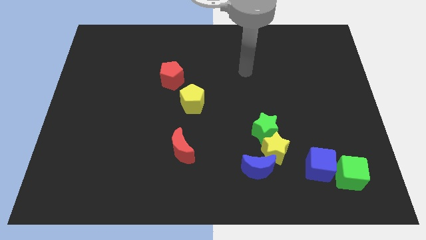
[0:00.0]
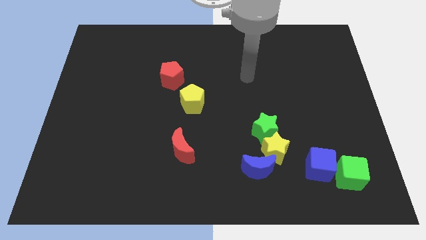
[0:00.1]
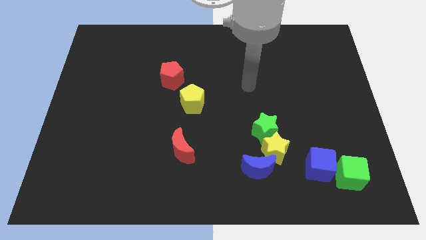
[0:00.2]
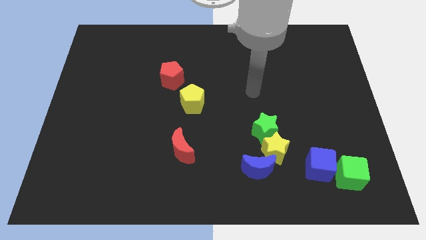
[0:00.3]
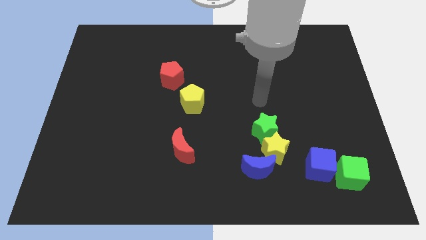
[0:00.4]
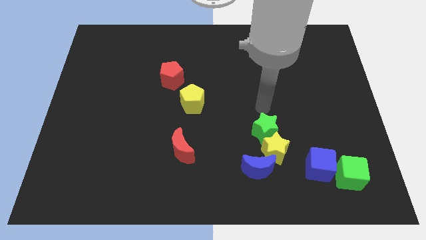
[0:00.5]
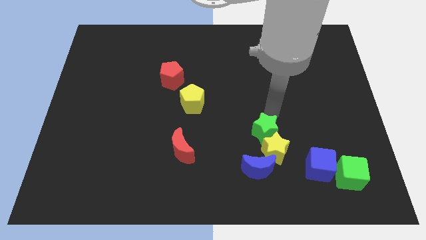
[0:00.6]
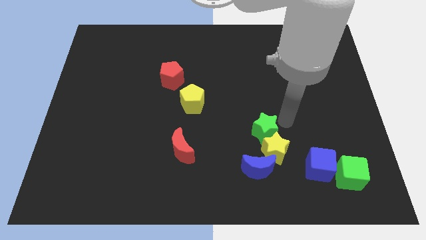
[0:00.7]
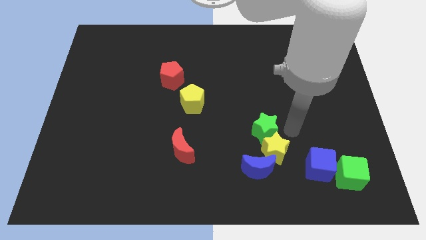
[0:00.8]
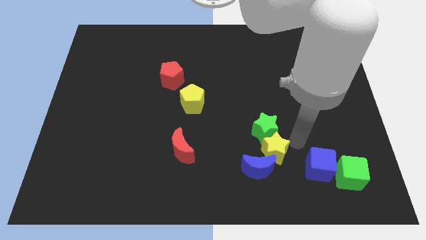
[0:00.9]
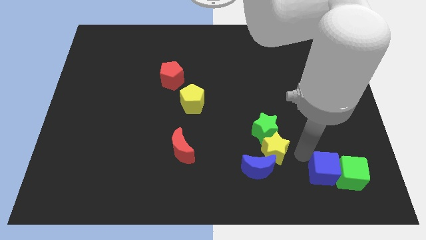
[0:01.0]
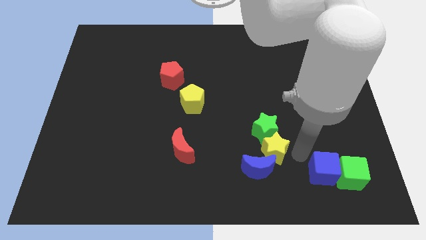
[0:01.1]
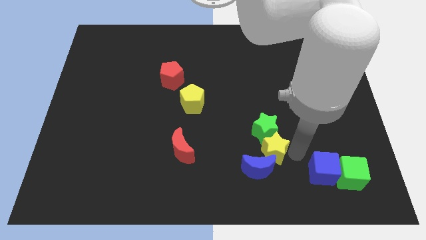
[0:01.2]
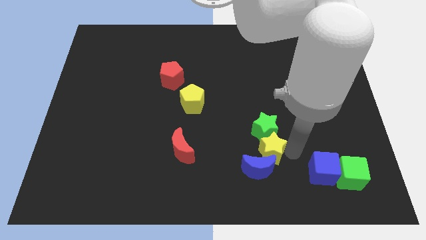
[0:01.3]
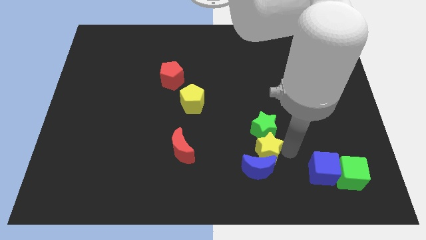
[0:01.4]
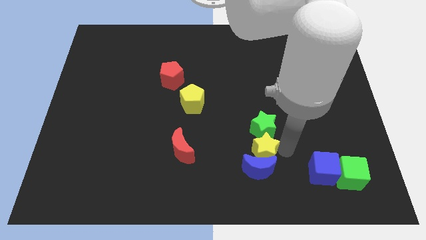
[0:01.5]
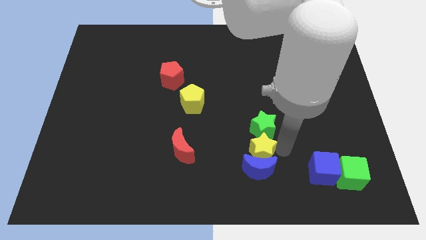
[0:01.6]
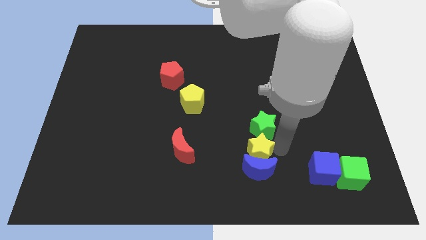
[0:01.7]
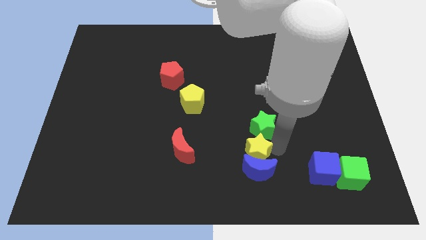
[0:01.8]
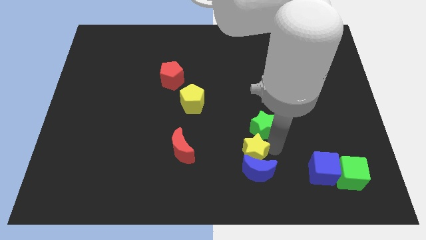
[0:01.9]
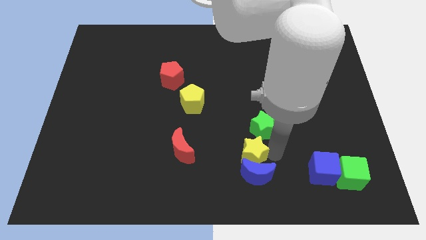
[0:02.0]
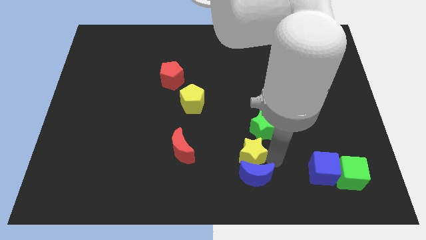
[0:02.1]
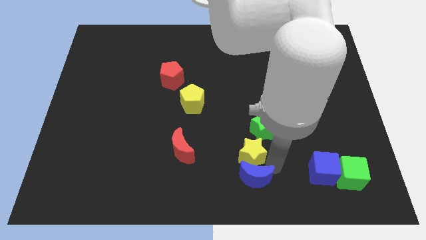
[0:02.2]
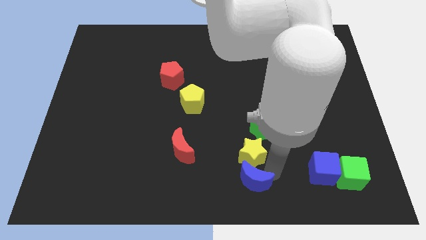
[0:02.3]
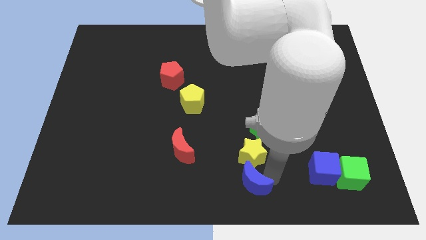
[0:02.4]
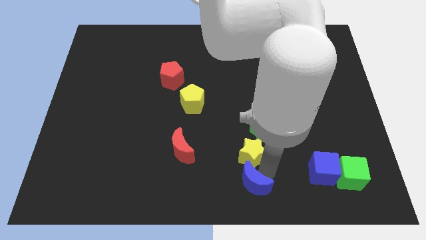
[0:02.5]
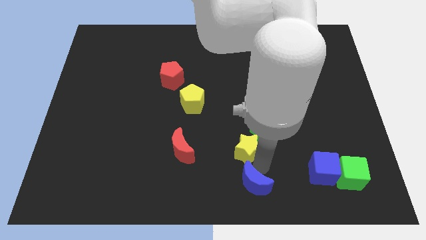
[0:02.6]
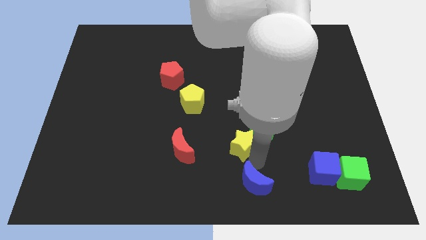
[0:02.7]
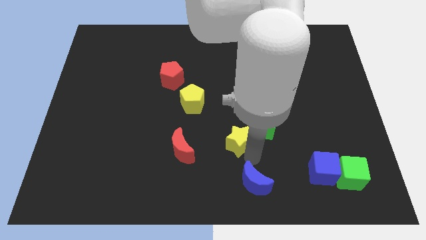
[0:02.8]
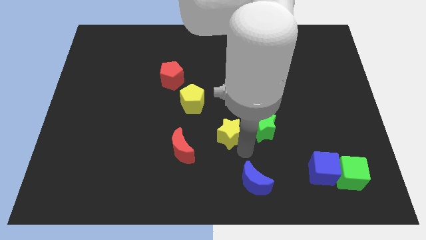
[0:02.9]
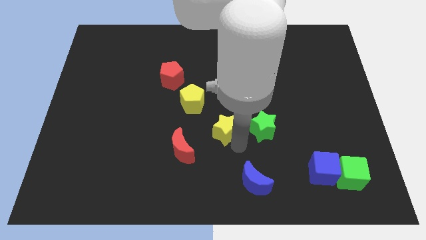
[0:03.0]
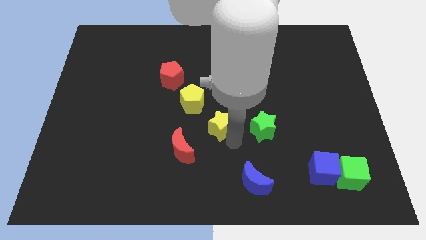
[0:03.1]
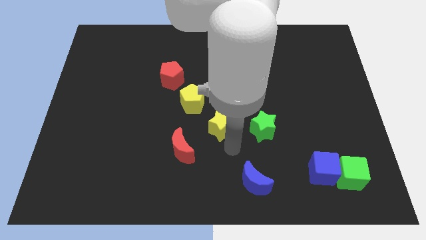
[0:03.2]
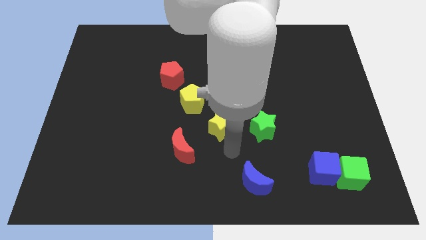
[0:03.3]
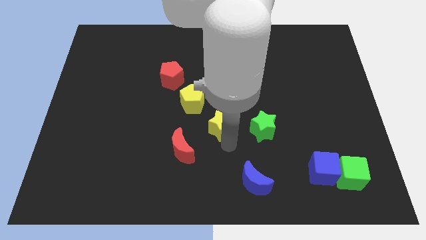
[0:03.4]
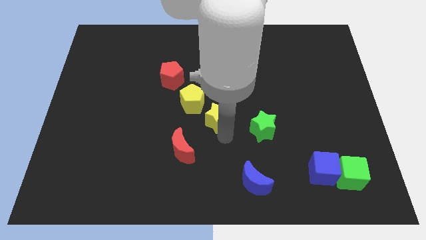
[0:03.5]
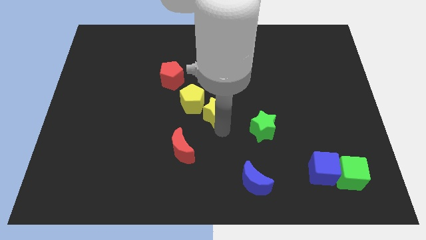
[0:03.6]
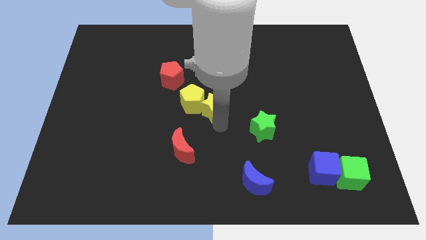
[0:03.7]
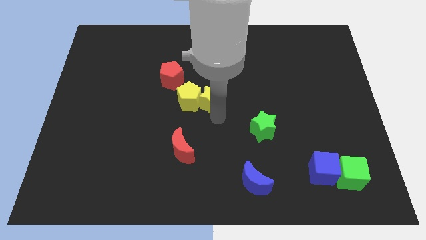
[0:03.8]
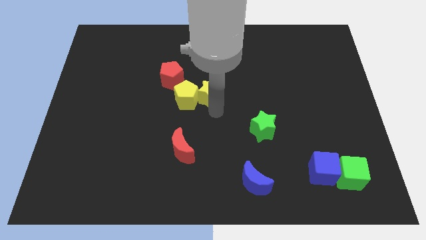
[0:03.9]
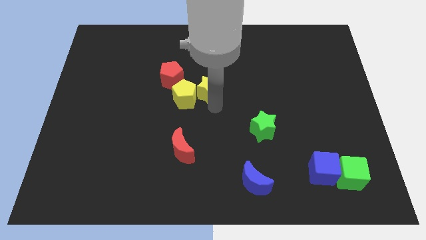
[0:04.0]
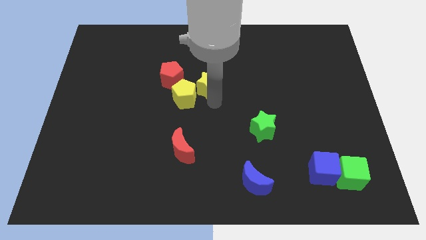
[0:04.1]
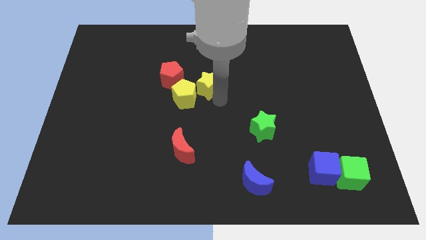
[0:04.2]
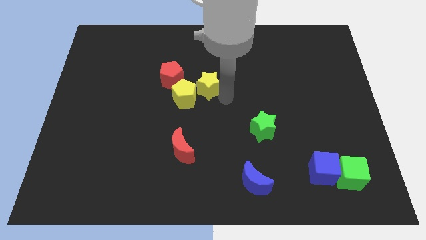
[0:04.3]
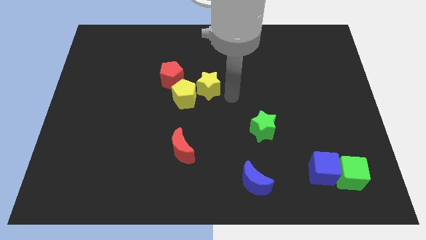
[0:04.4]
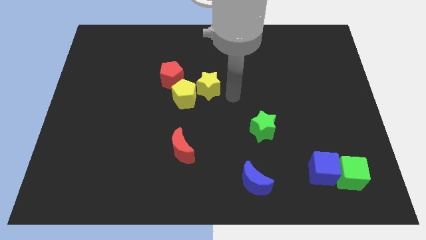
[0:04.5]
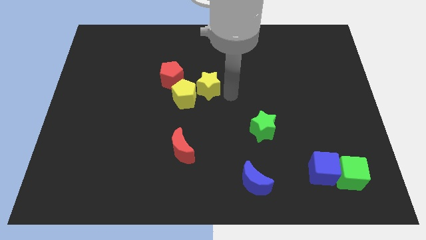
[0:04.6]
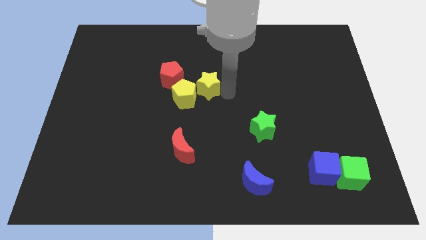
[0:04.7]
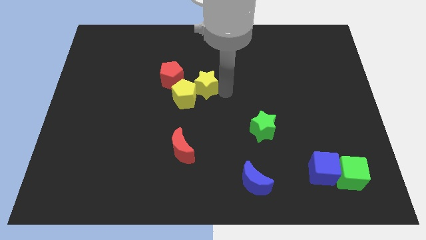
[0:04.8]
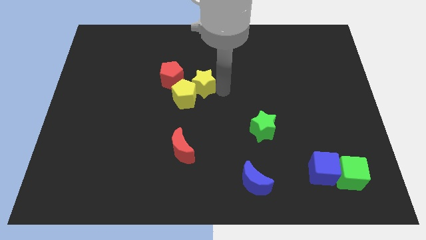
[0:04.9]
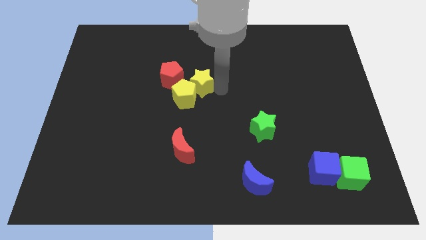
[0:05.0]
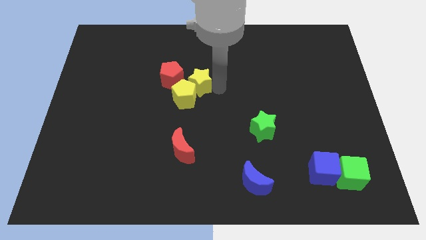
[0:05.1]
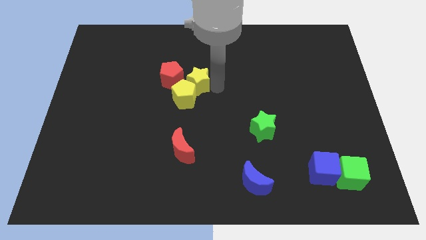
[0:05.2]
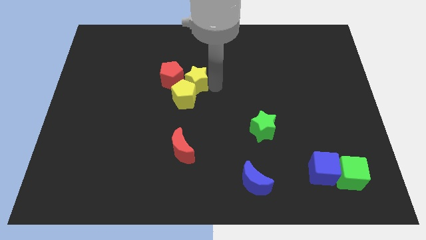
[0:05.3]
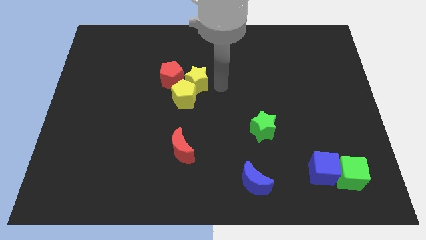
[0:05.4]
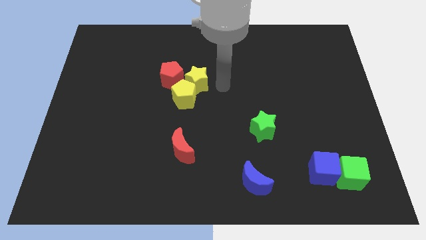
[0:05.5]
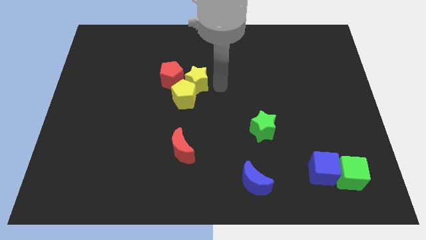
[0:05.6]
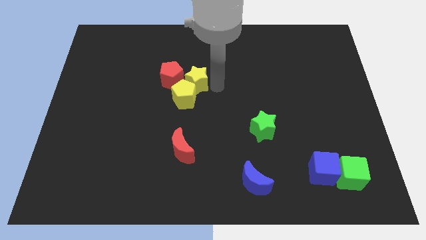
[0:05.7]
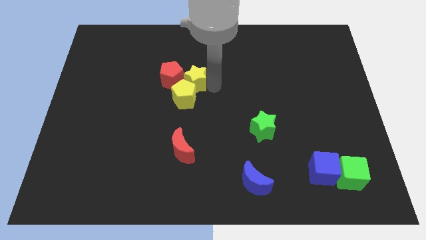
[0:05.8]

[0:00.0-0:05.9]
move the yellow star next to the red pentagon

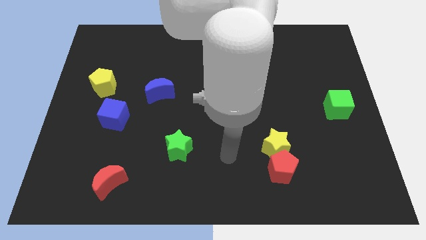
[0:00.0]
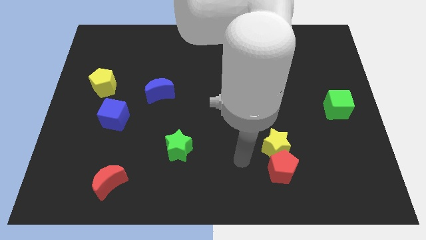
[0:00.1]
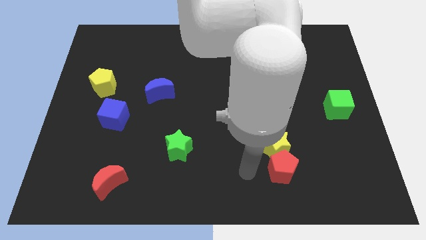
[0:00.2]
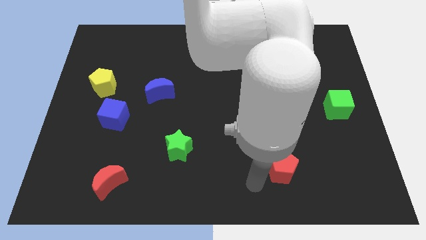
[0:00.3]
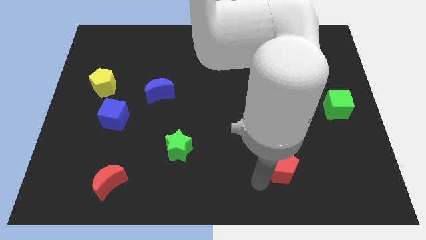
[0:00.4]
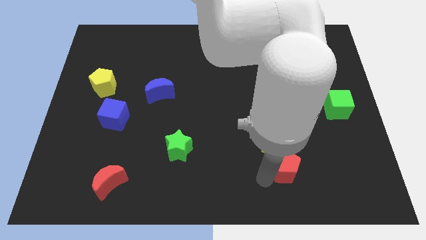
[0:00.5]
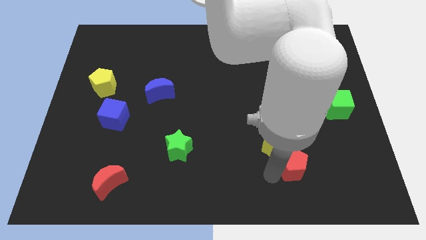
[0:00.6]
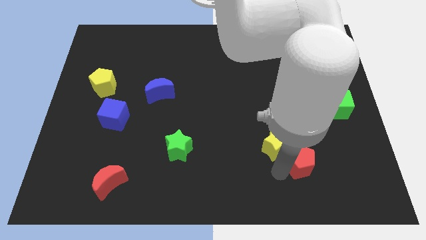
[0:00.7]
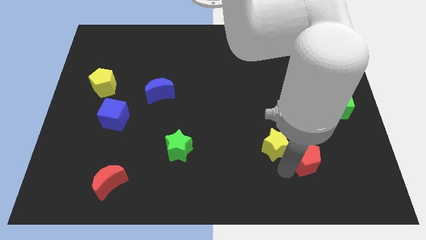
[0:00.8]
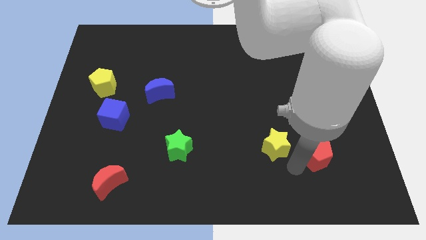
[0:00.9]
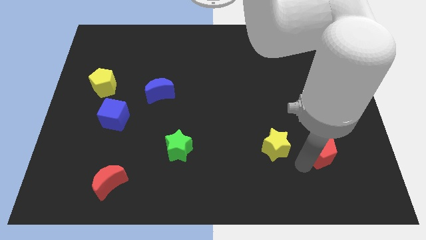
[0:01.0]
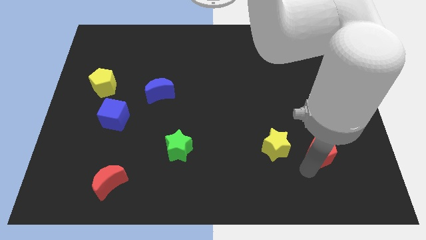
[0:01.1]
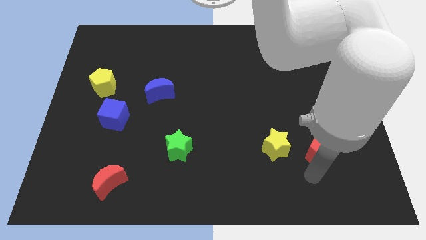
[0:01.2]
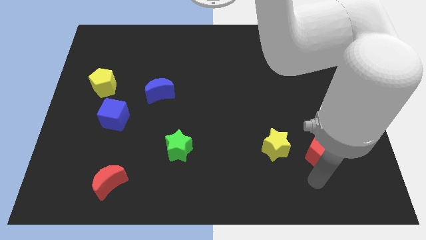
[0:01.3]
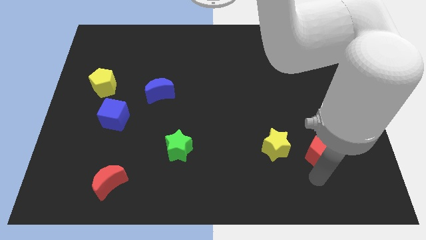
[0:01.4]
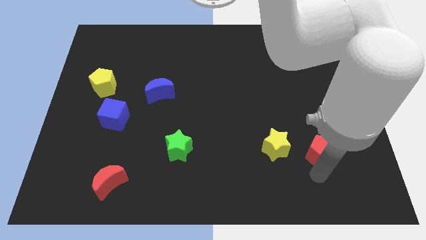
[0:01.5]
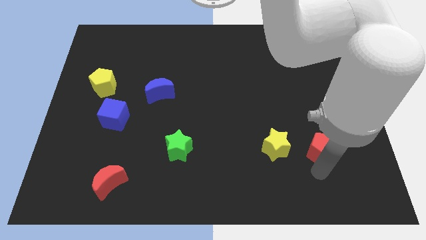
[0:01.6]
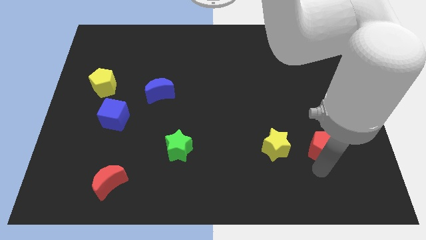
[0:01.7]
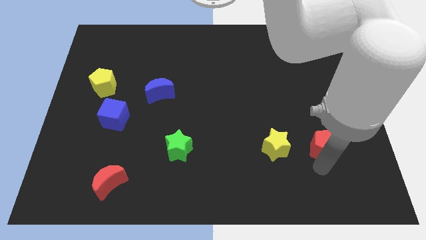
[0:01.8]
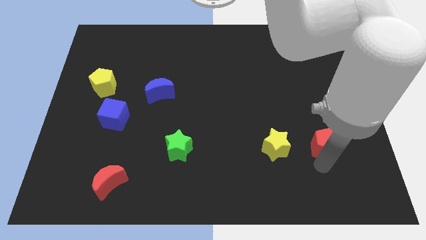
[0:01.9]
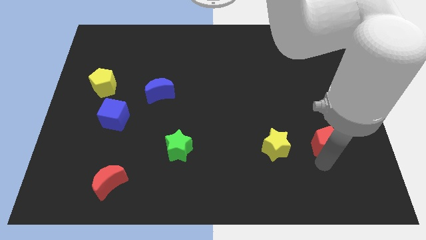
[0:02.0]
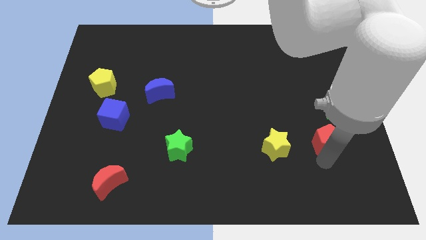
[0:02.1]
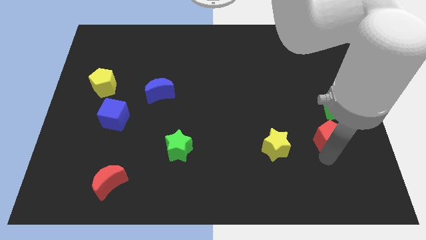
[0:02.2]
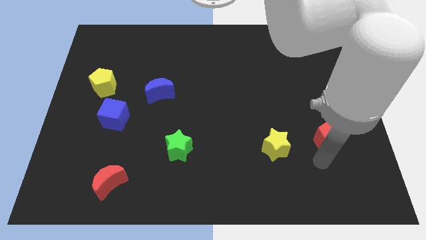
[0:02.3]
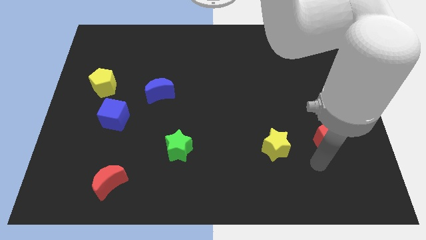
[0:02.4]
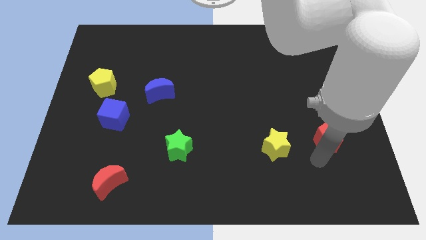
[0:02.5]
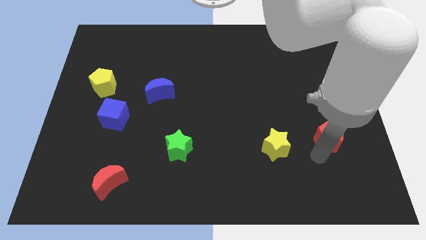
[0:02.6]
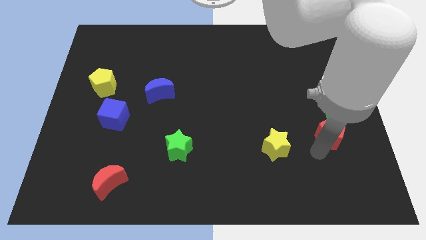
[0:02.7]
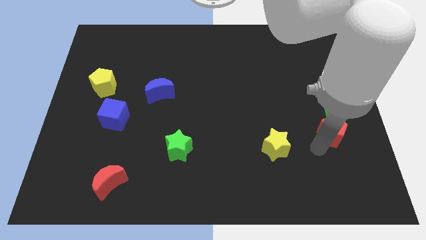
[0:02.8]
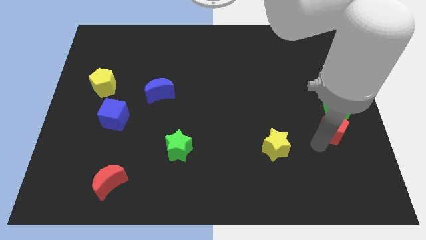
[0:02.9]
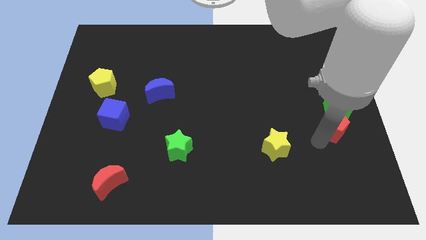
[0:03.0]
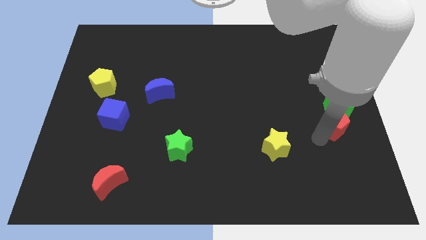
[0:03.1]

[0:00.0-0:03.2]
slide the red pentagon close to the green cube
